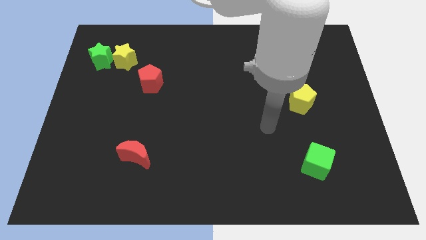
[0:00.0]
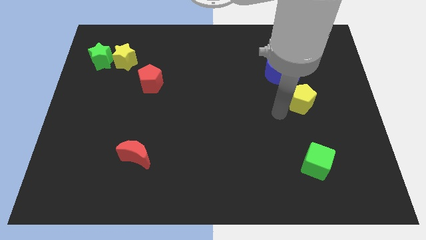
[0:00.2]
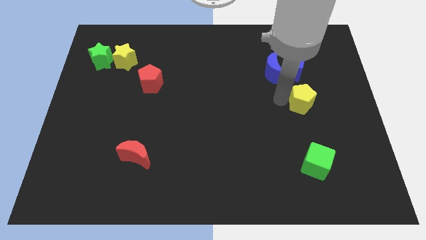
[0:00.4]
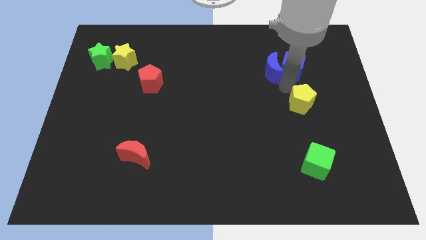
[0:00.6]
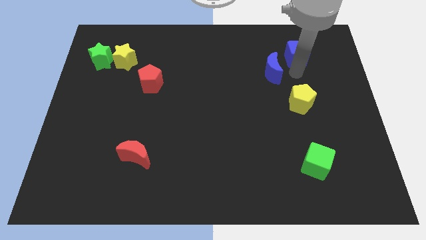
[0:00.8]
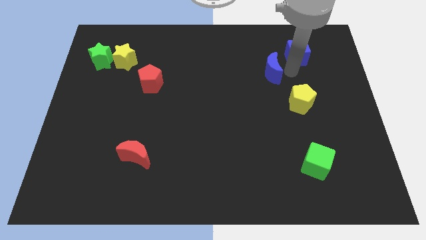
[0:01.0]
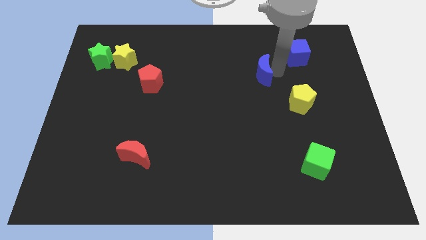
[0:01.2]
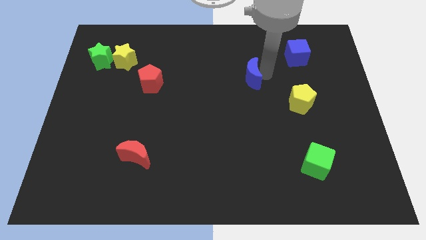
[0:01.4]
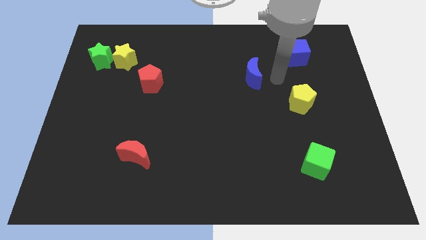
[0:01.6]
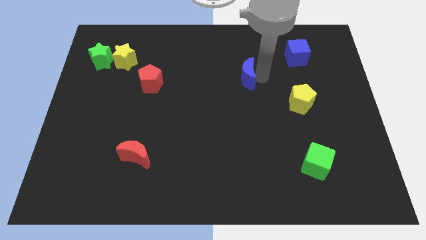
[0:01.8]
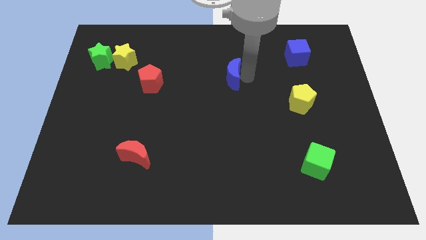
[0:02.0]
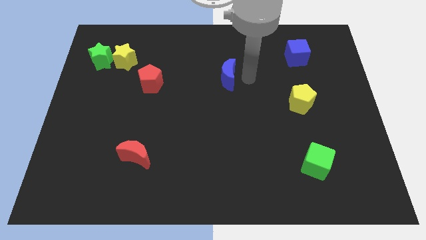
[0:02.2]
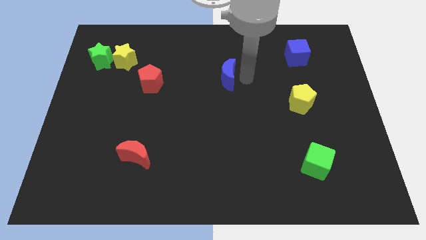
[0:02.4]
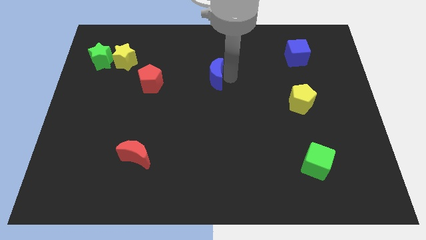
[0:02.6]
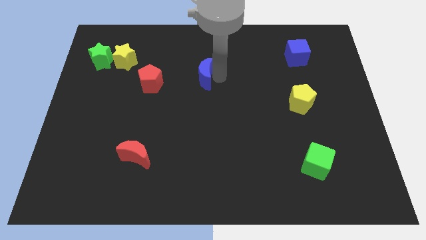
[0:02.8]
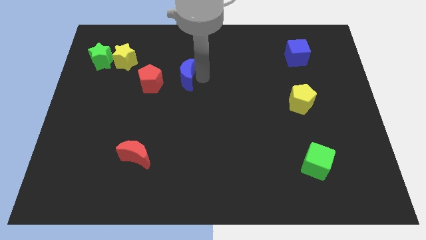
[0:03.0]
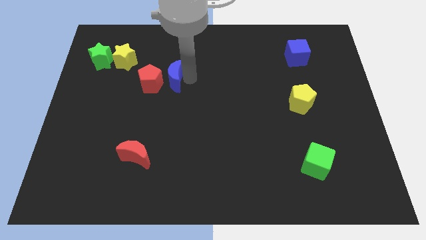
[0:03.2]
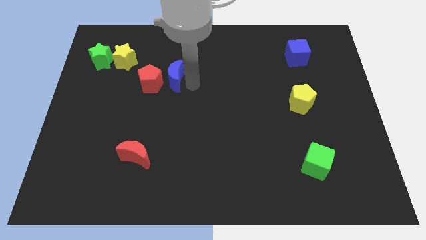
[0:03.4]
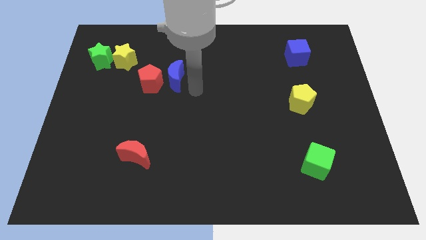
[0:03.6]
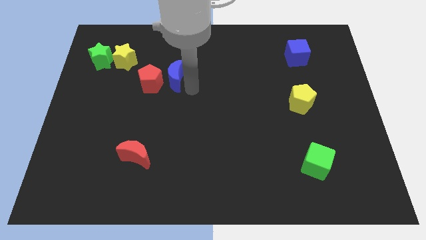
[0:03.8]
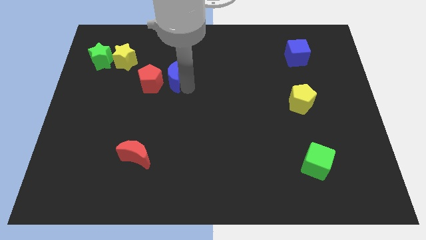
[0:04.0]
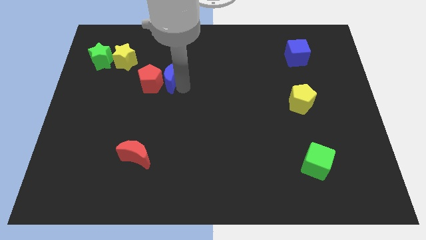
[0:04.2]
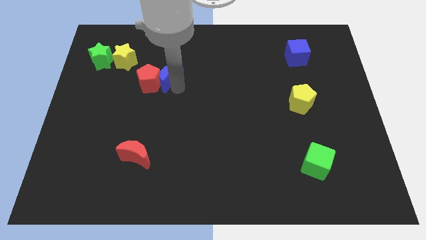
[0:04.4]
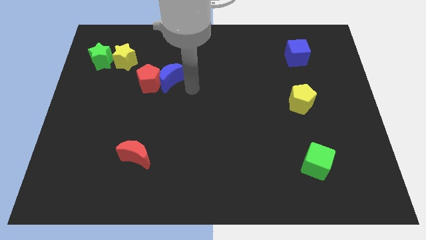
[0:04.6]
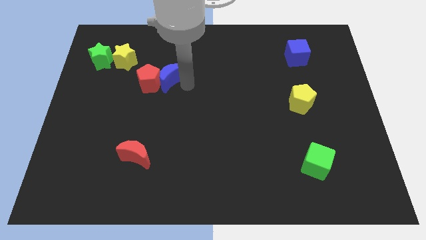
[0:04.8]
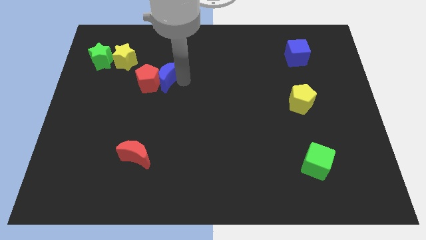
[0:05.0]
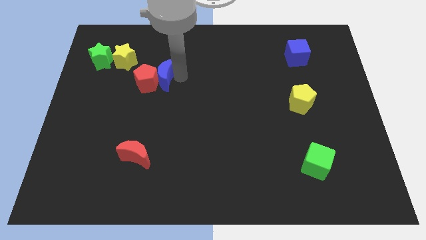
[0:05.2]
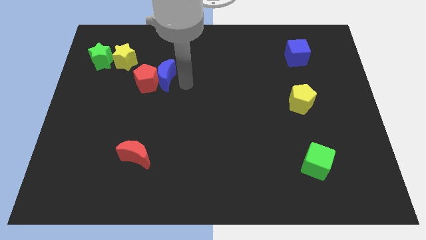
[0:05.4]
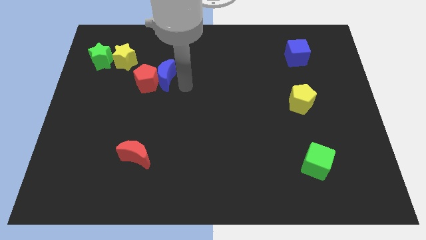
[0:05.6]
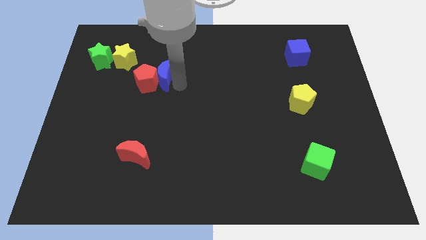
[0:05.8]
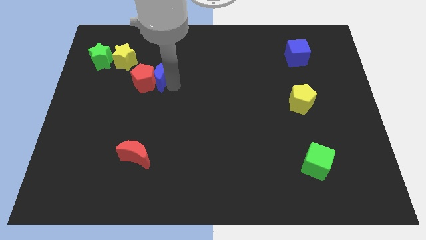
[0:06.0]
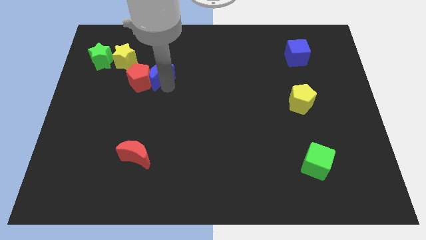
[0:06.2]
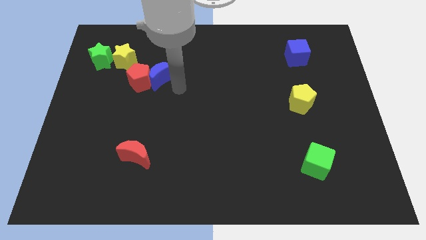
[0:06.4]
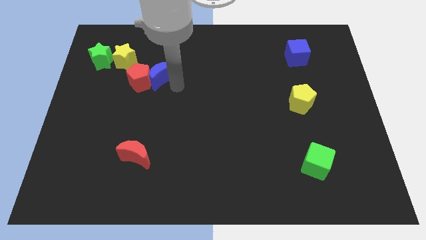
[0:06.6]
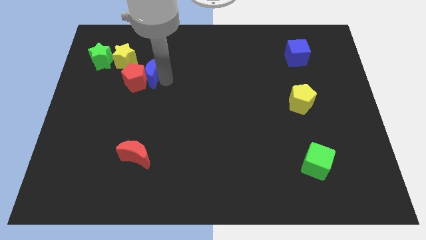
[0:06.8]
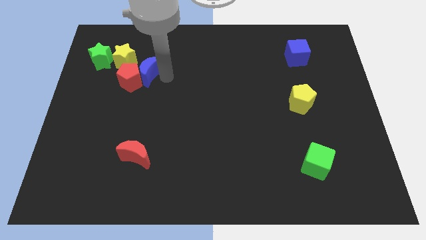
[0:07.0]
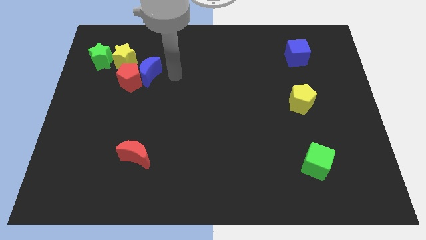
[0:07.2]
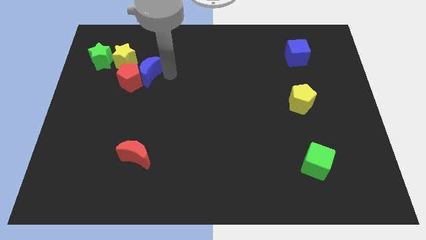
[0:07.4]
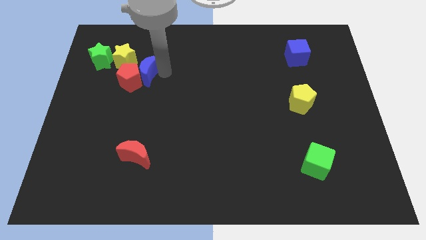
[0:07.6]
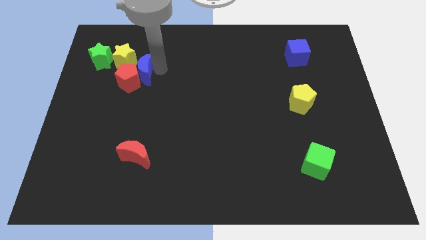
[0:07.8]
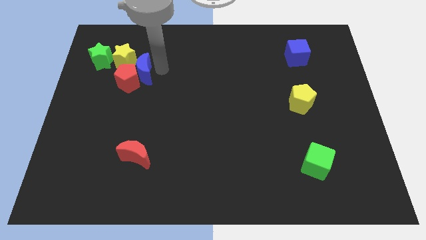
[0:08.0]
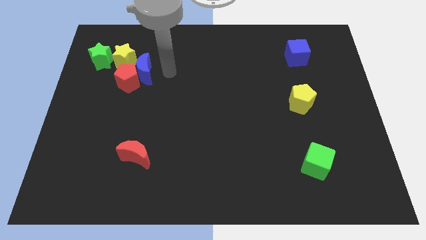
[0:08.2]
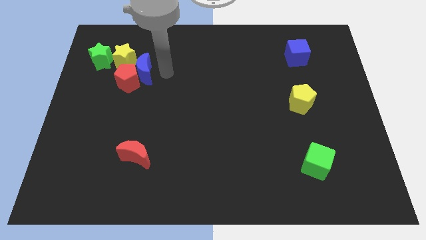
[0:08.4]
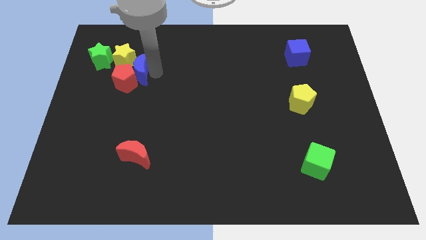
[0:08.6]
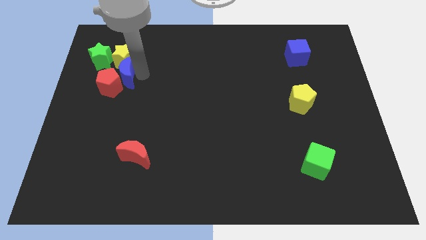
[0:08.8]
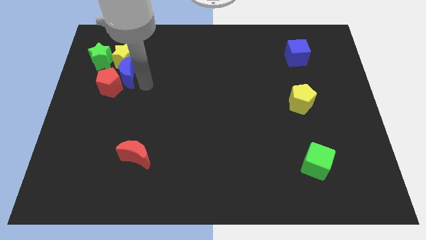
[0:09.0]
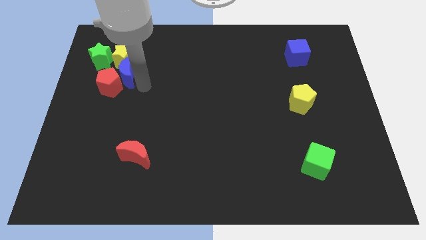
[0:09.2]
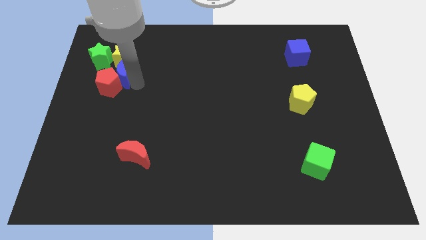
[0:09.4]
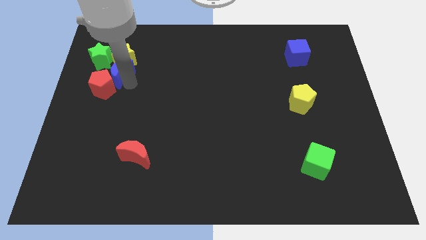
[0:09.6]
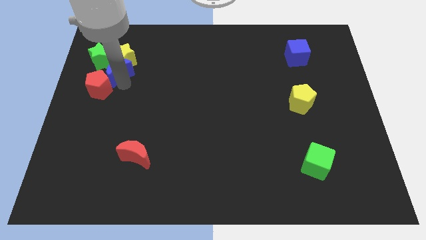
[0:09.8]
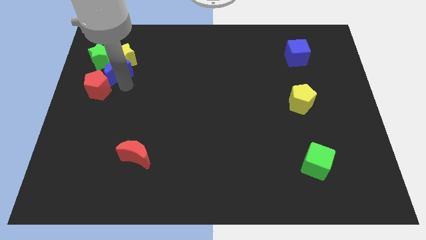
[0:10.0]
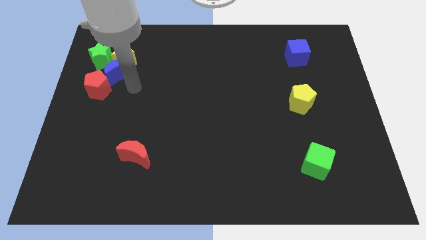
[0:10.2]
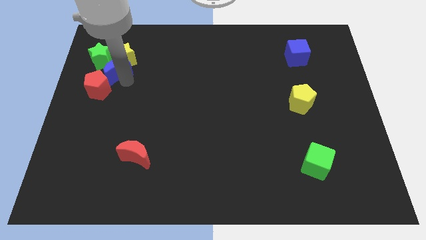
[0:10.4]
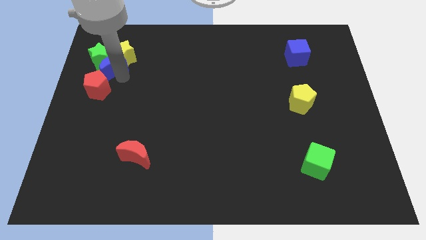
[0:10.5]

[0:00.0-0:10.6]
move the blue moon next to the green star

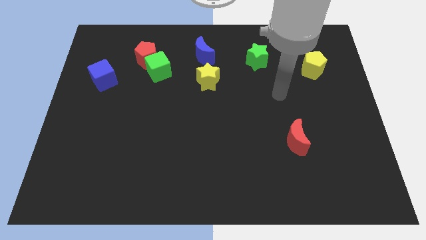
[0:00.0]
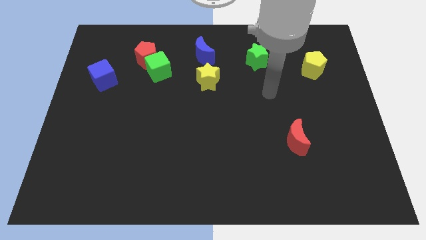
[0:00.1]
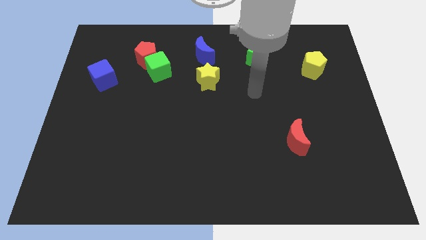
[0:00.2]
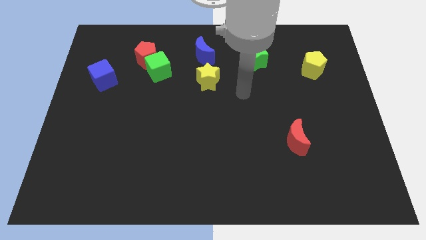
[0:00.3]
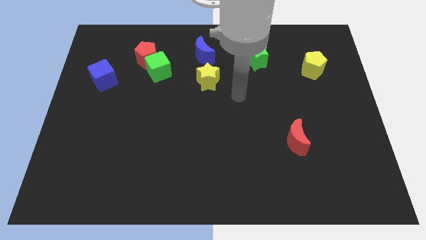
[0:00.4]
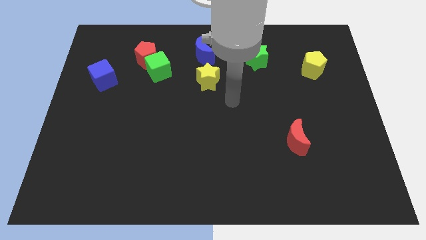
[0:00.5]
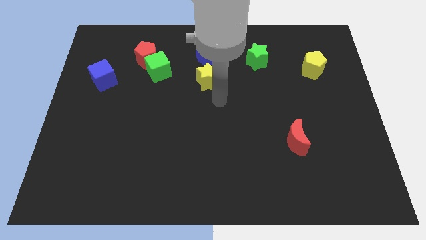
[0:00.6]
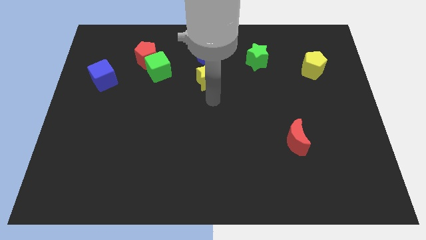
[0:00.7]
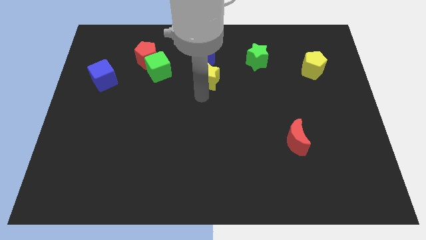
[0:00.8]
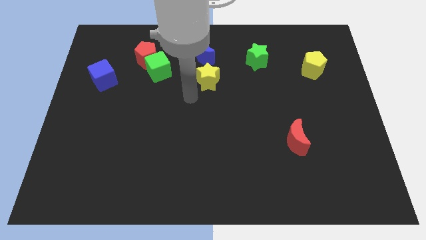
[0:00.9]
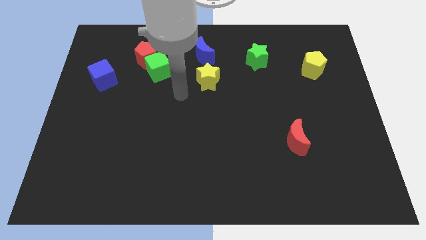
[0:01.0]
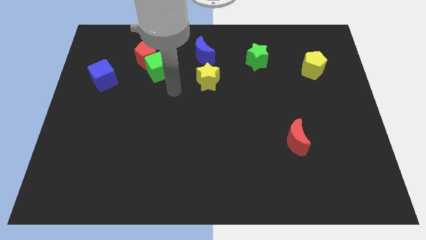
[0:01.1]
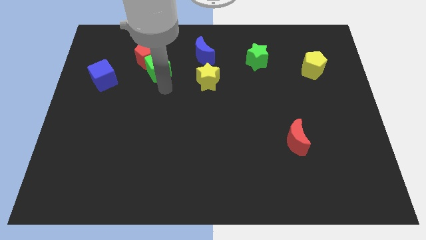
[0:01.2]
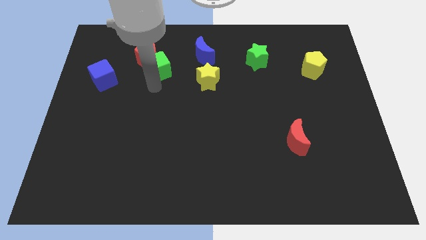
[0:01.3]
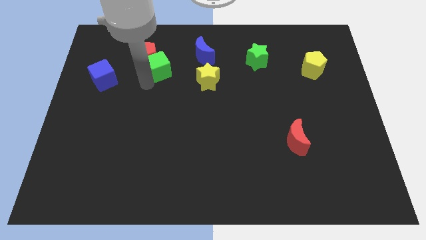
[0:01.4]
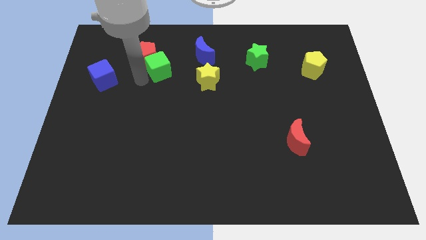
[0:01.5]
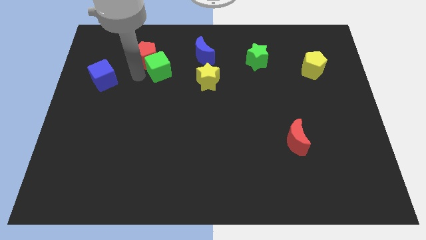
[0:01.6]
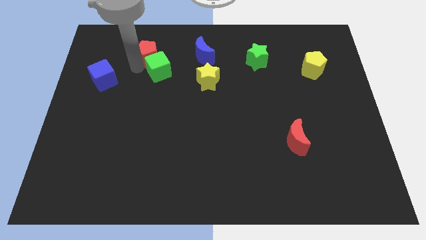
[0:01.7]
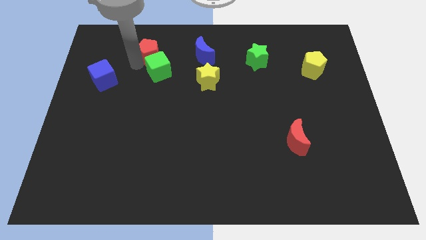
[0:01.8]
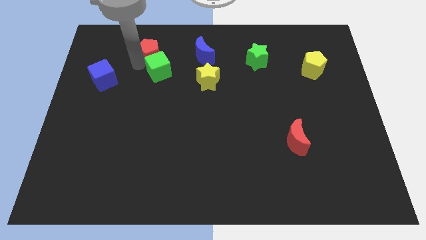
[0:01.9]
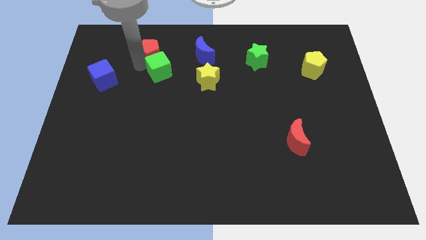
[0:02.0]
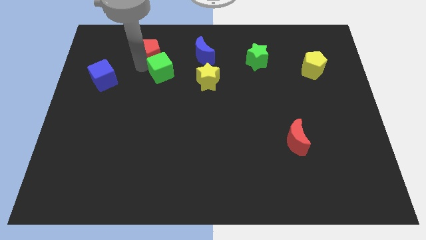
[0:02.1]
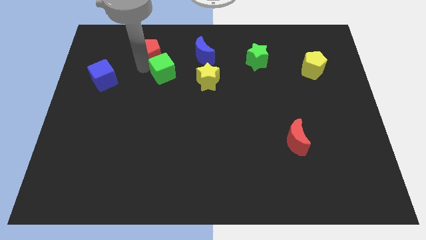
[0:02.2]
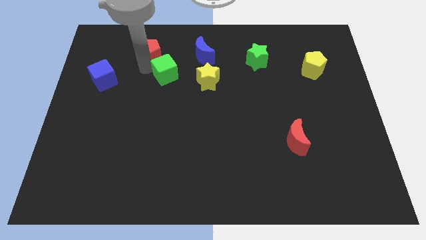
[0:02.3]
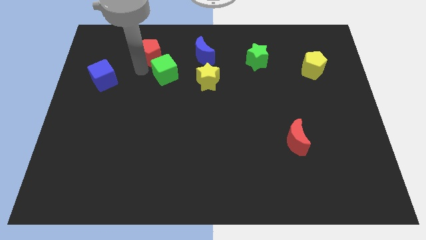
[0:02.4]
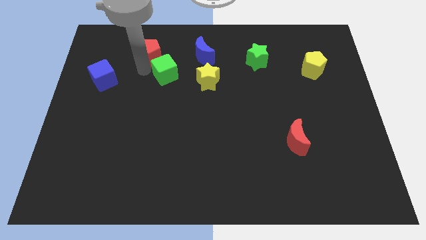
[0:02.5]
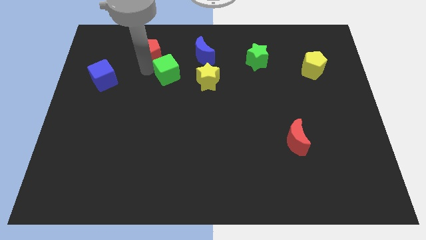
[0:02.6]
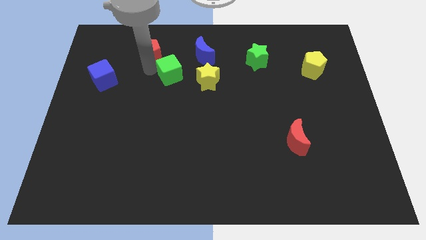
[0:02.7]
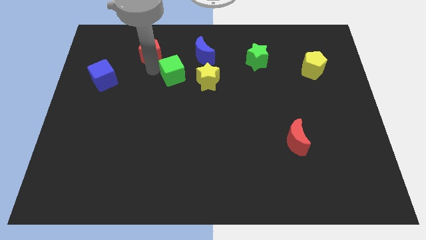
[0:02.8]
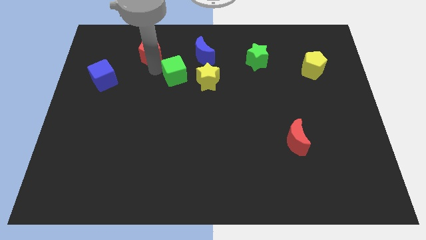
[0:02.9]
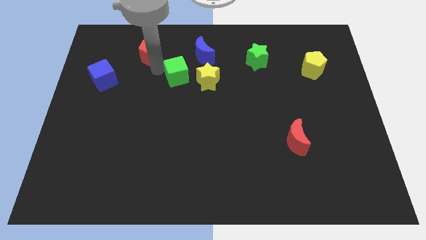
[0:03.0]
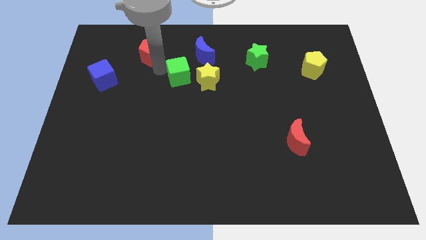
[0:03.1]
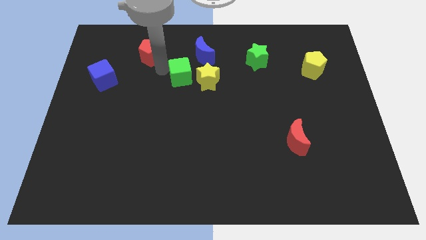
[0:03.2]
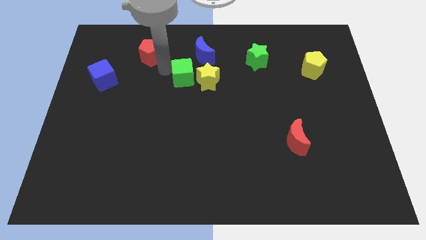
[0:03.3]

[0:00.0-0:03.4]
slide the green cube towards the yellow star
